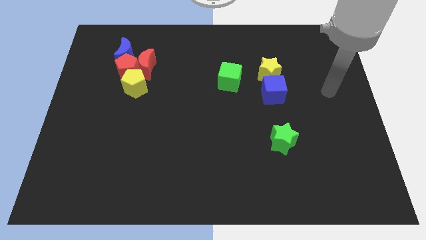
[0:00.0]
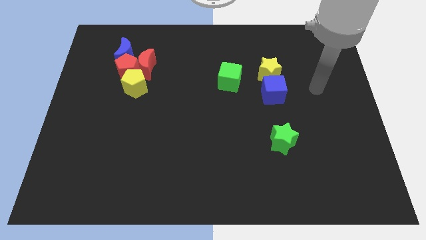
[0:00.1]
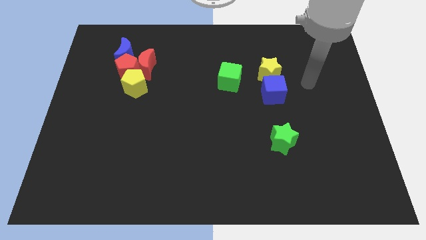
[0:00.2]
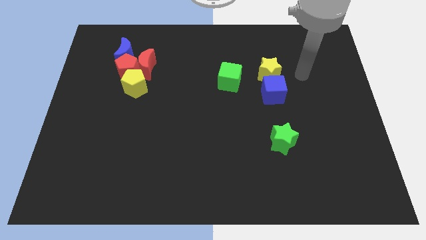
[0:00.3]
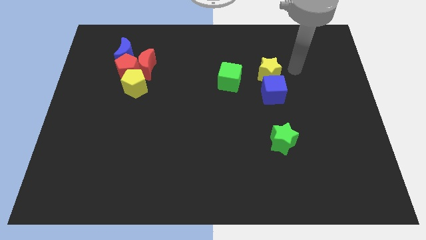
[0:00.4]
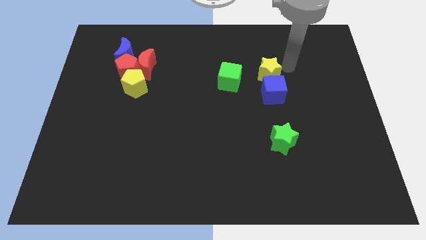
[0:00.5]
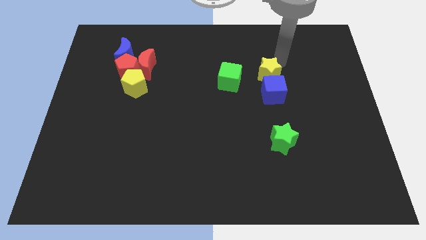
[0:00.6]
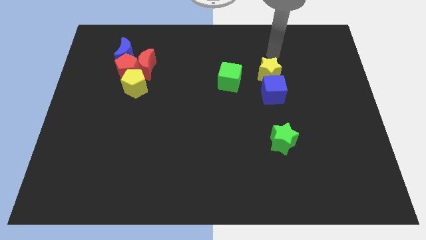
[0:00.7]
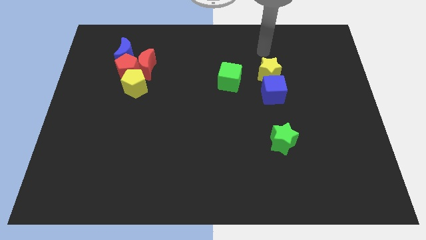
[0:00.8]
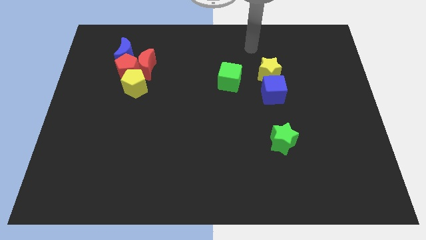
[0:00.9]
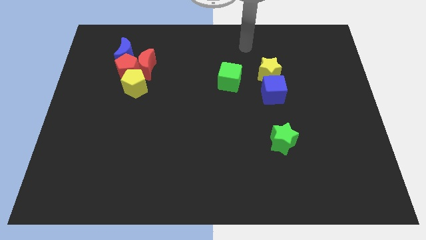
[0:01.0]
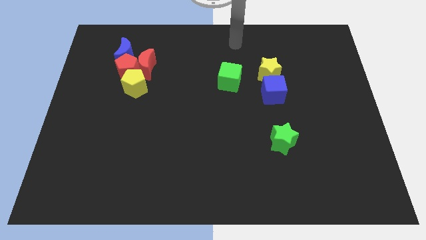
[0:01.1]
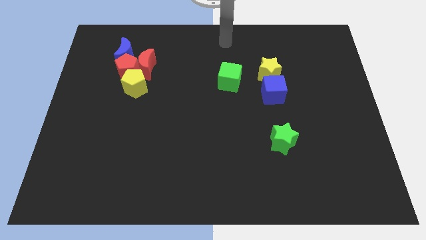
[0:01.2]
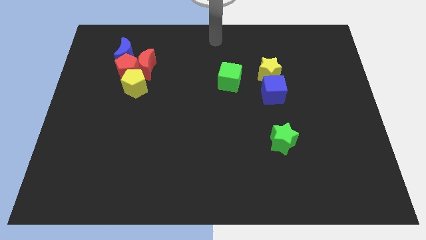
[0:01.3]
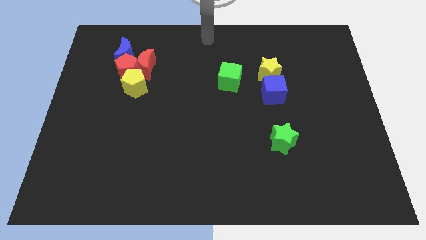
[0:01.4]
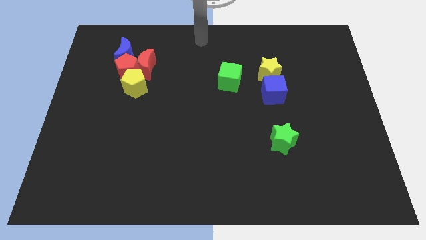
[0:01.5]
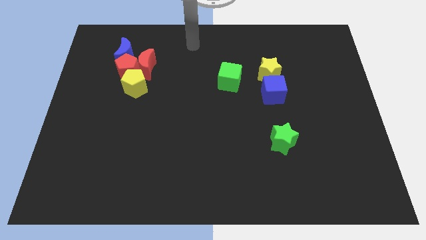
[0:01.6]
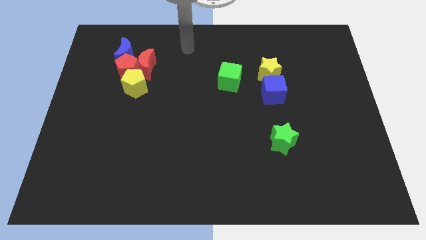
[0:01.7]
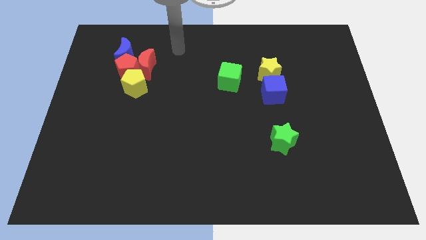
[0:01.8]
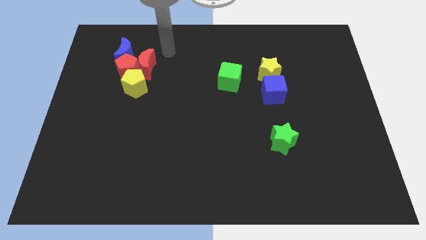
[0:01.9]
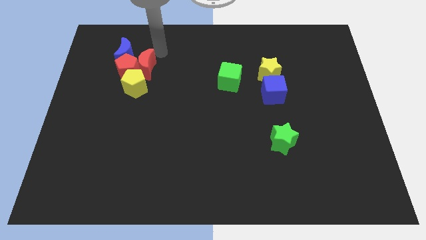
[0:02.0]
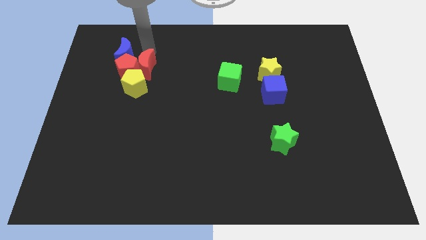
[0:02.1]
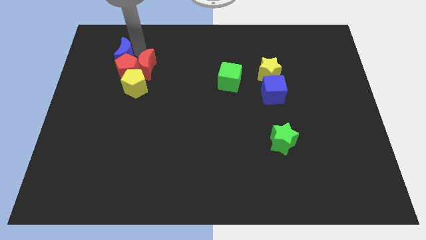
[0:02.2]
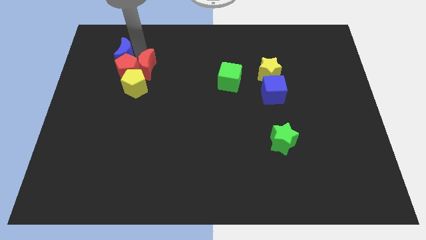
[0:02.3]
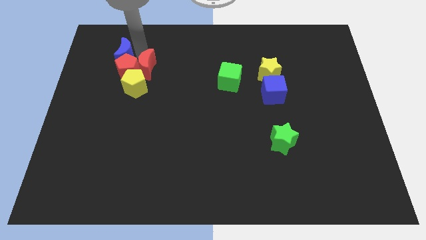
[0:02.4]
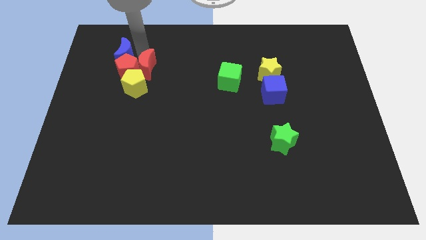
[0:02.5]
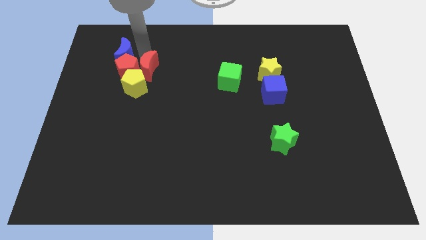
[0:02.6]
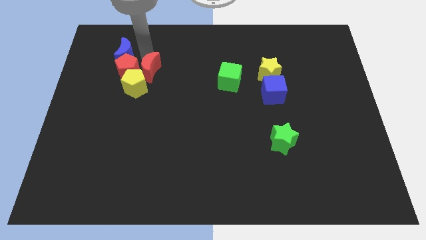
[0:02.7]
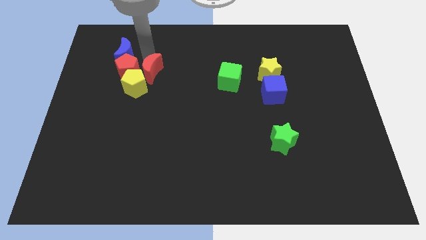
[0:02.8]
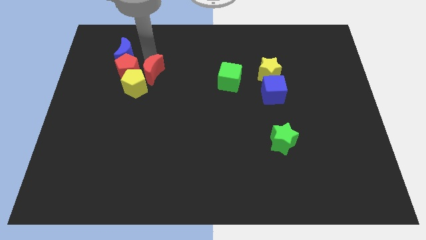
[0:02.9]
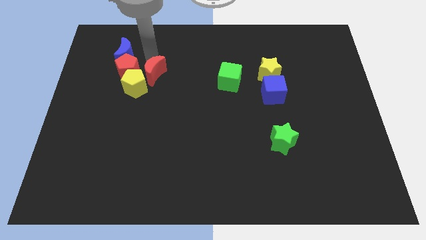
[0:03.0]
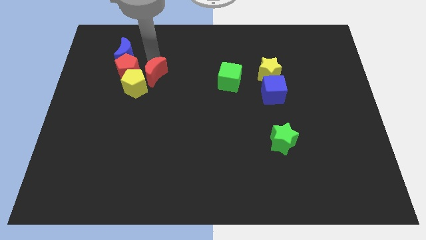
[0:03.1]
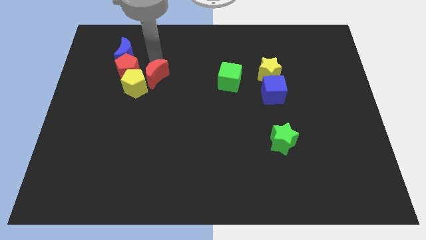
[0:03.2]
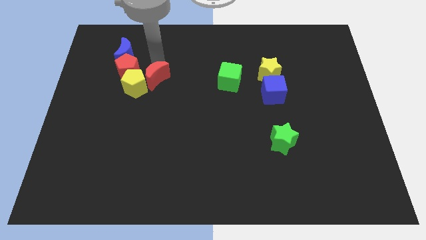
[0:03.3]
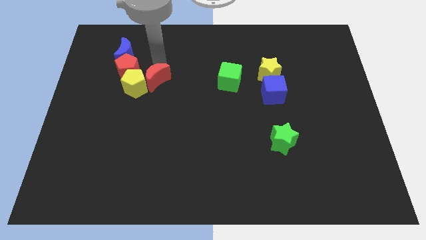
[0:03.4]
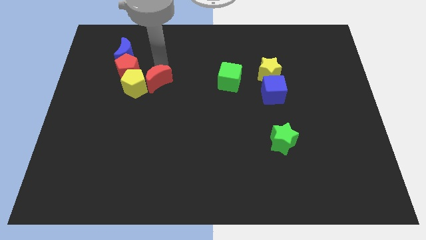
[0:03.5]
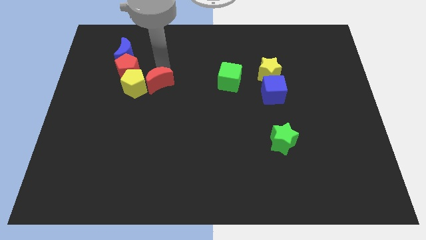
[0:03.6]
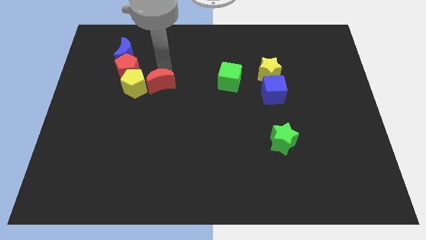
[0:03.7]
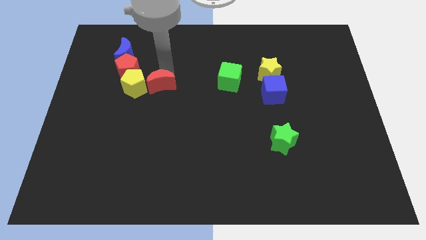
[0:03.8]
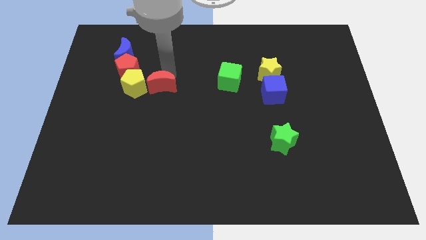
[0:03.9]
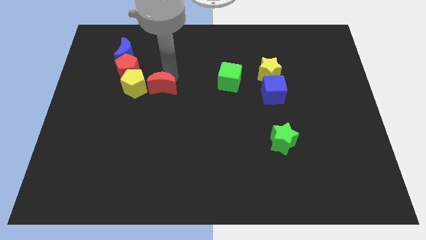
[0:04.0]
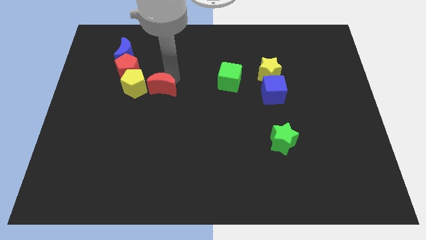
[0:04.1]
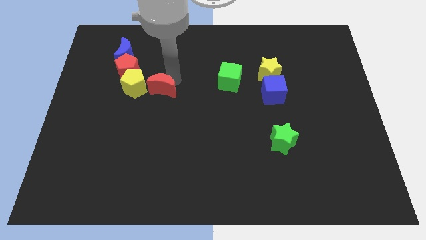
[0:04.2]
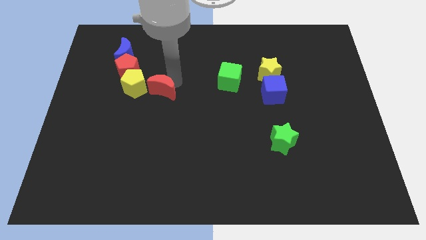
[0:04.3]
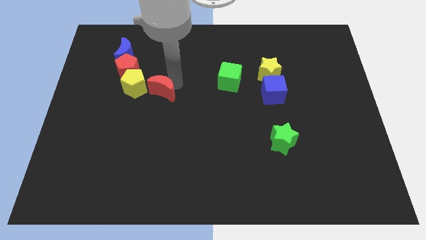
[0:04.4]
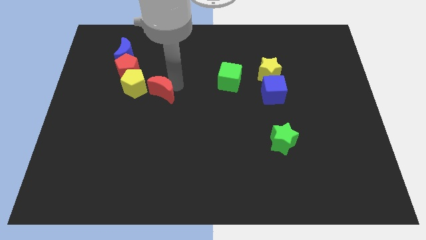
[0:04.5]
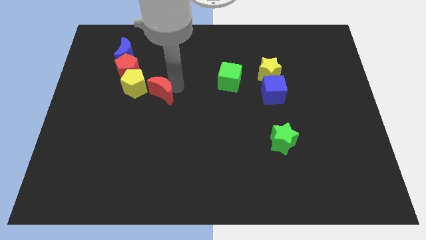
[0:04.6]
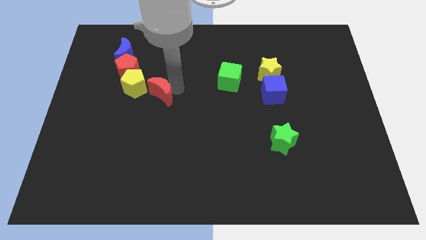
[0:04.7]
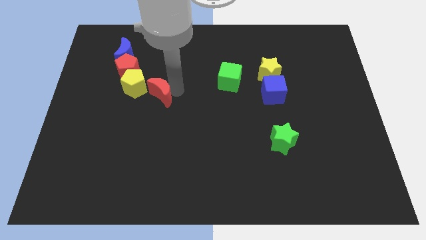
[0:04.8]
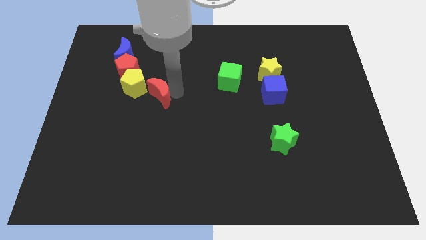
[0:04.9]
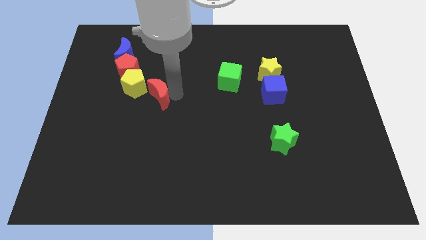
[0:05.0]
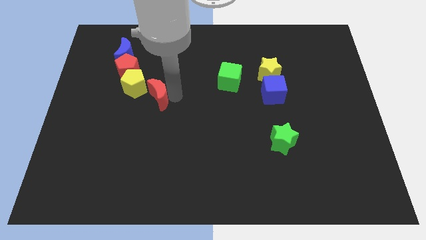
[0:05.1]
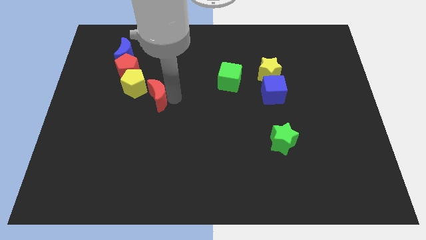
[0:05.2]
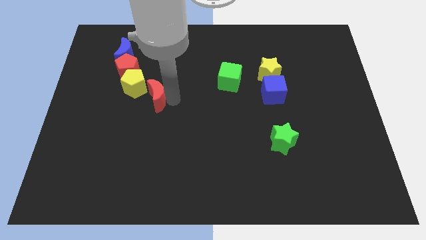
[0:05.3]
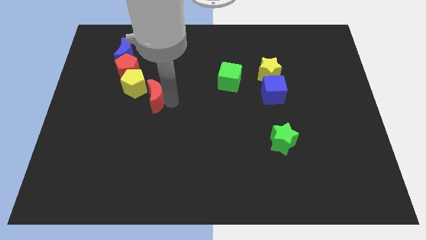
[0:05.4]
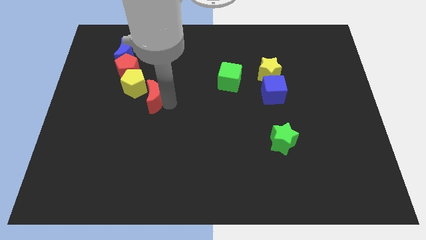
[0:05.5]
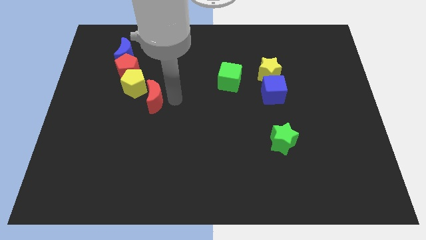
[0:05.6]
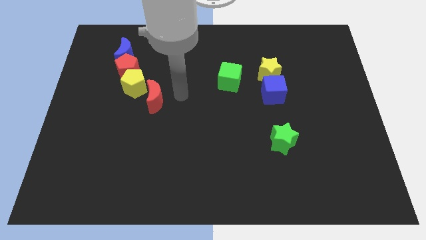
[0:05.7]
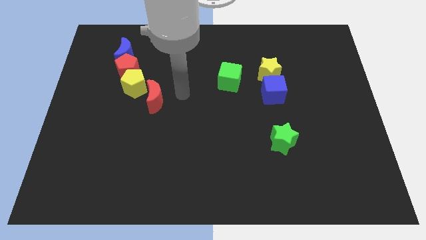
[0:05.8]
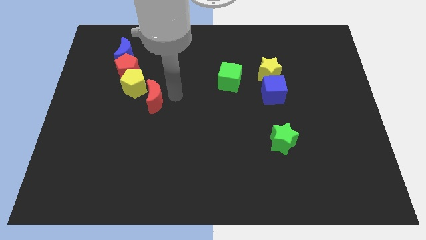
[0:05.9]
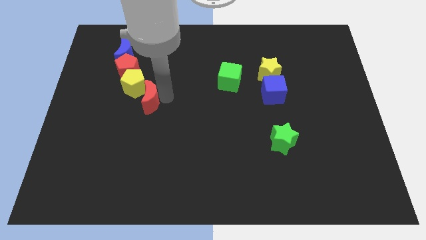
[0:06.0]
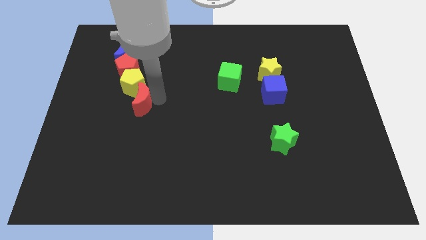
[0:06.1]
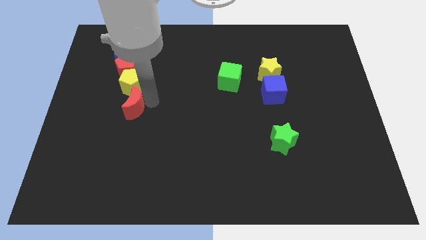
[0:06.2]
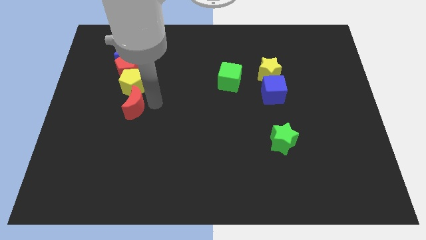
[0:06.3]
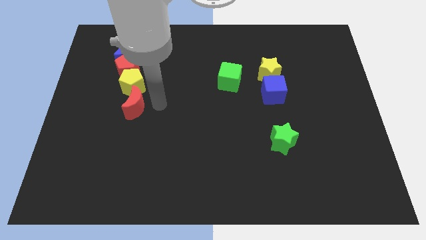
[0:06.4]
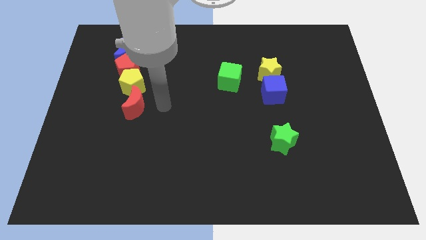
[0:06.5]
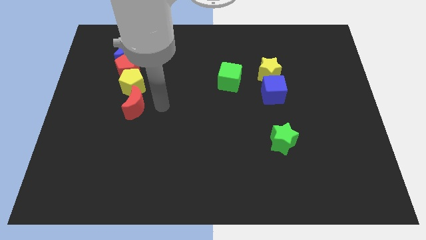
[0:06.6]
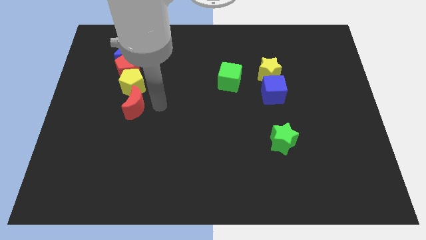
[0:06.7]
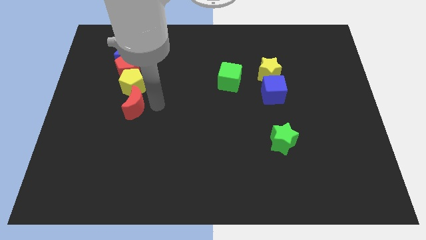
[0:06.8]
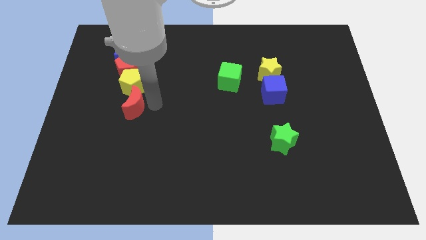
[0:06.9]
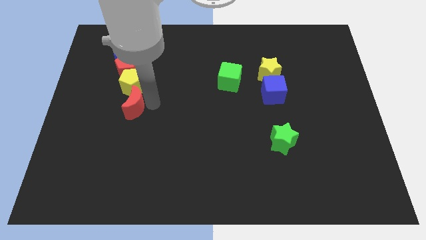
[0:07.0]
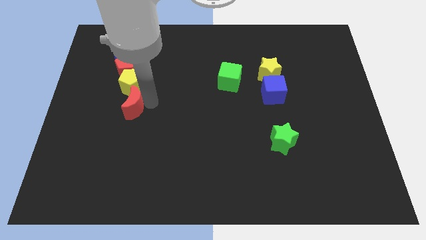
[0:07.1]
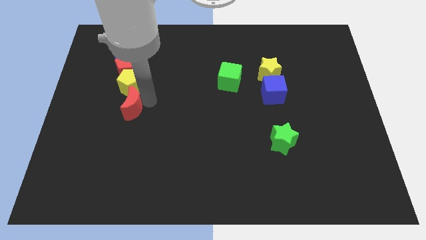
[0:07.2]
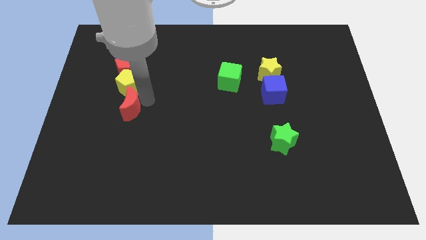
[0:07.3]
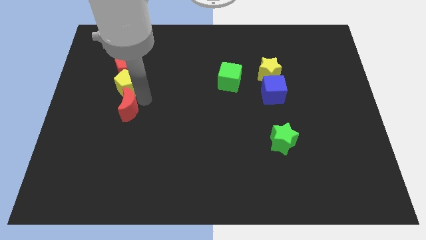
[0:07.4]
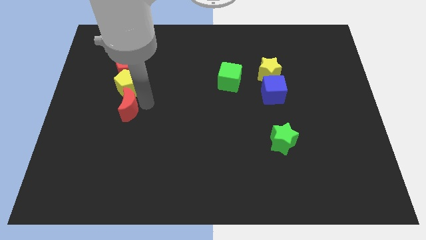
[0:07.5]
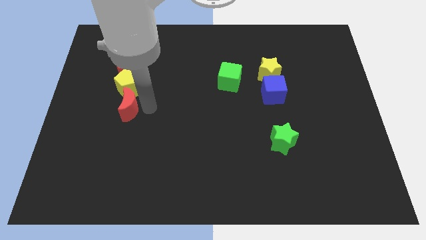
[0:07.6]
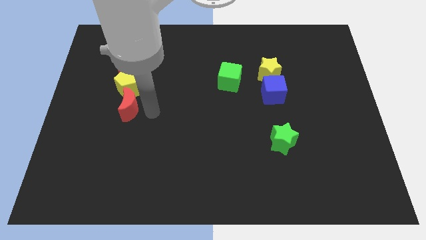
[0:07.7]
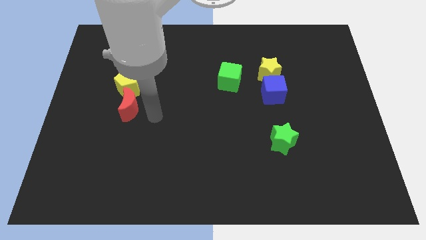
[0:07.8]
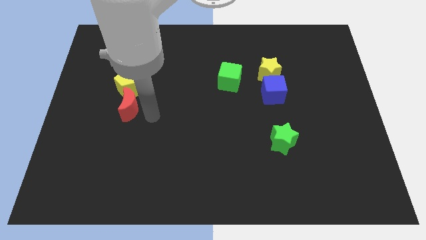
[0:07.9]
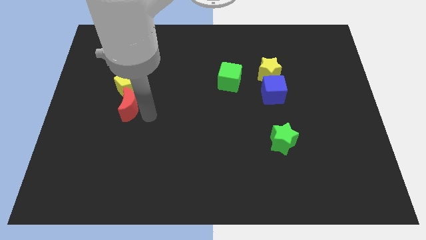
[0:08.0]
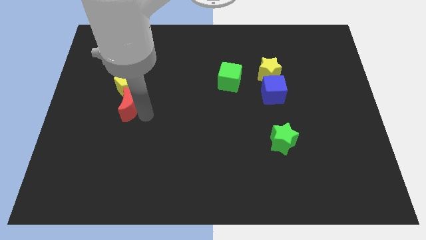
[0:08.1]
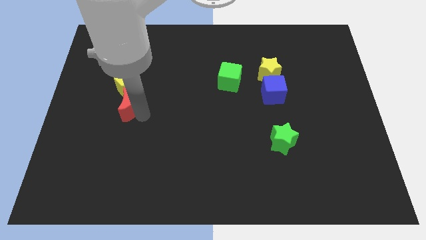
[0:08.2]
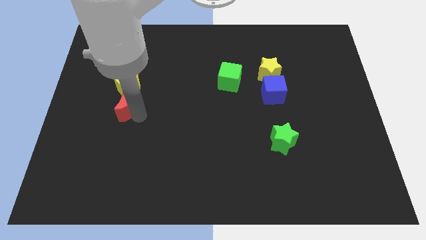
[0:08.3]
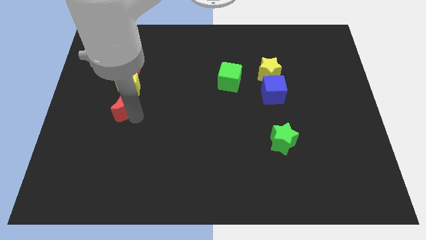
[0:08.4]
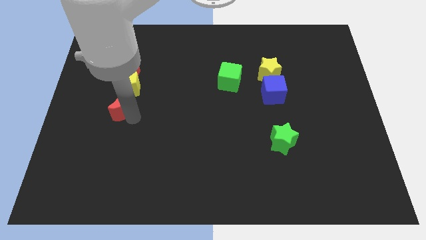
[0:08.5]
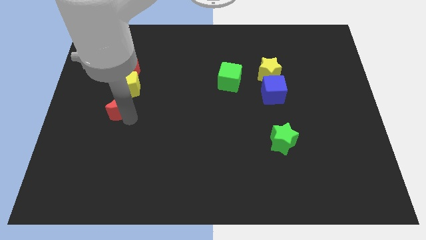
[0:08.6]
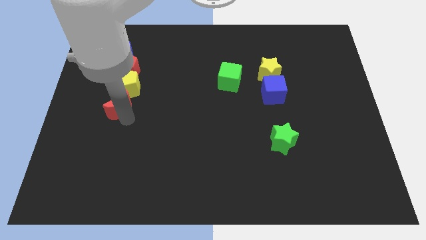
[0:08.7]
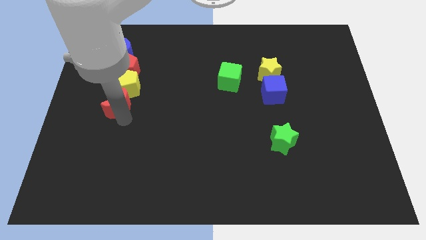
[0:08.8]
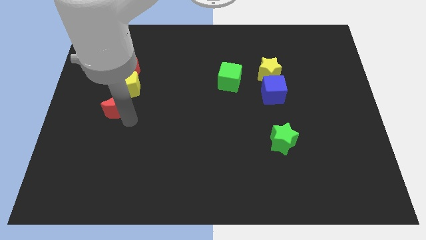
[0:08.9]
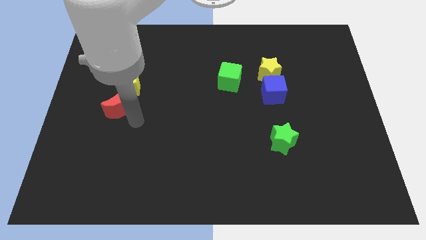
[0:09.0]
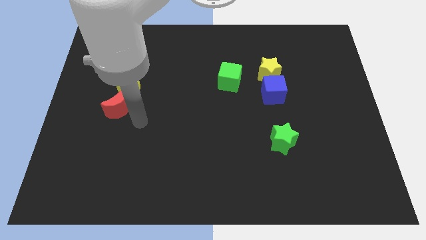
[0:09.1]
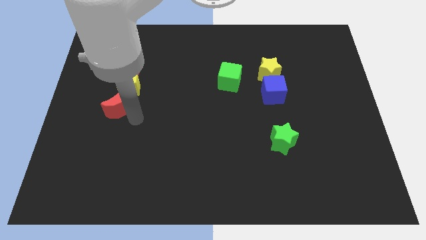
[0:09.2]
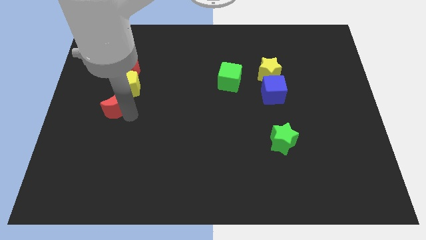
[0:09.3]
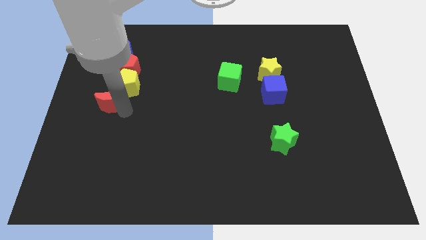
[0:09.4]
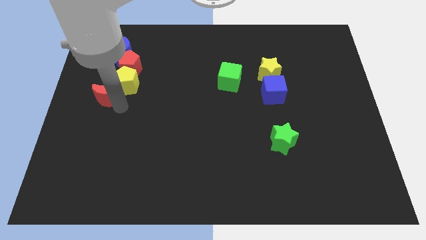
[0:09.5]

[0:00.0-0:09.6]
push the red moon to the center left
